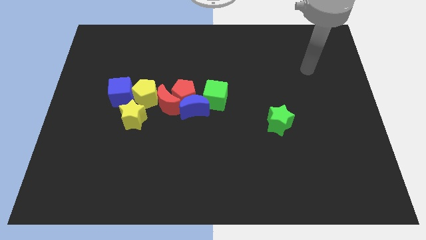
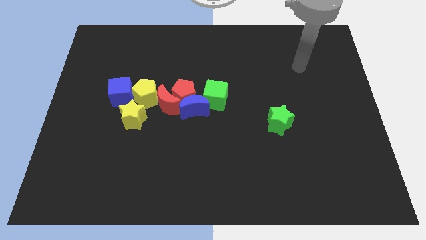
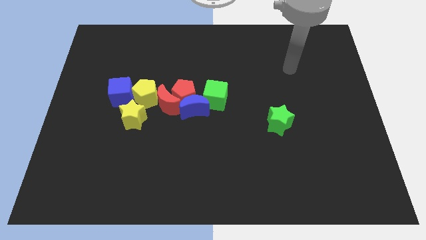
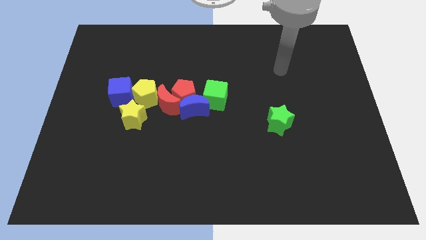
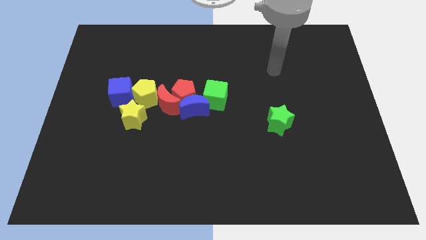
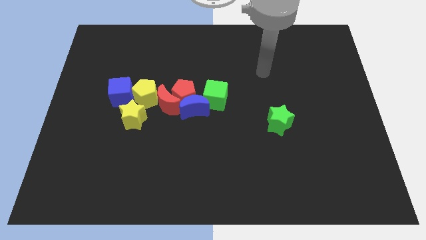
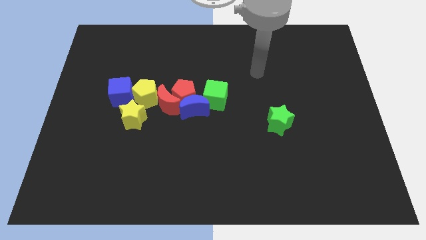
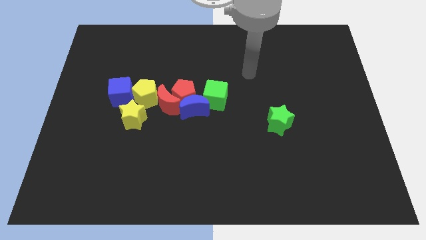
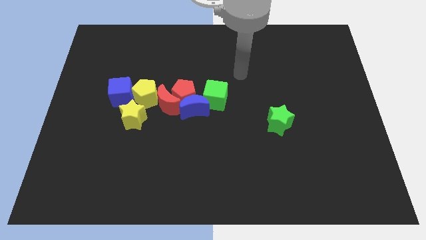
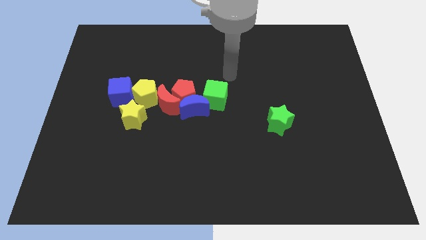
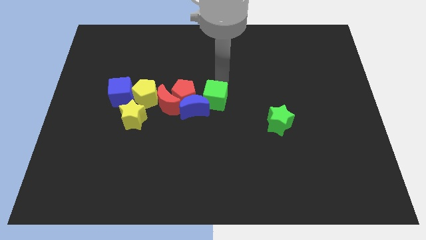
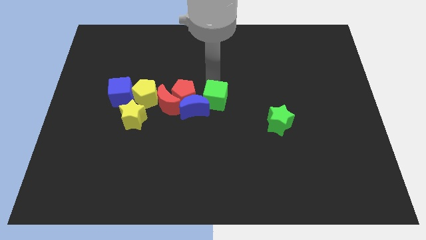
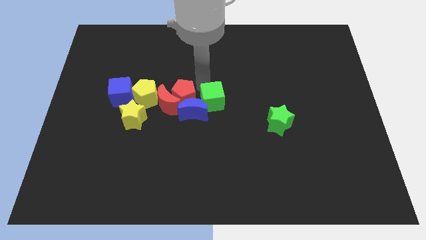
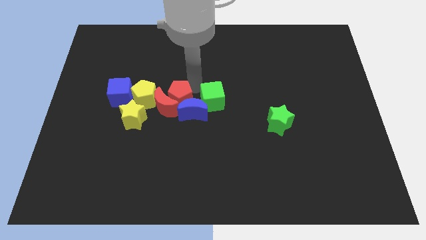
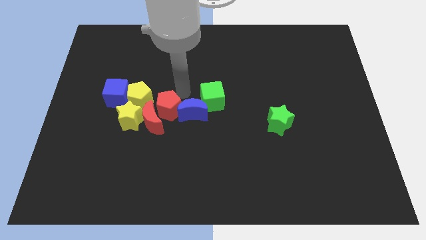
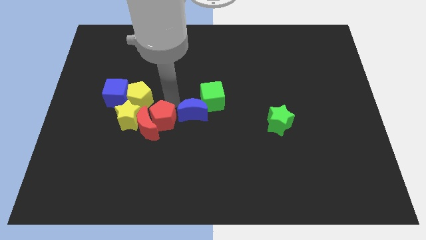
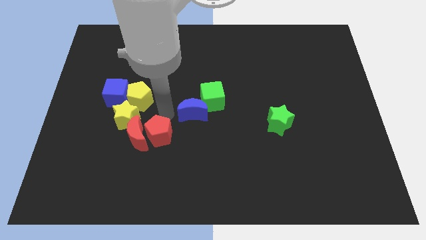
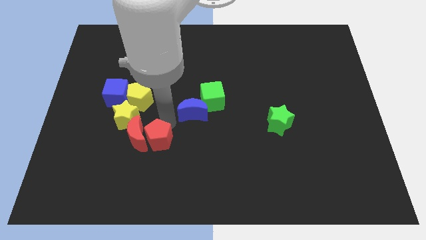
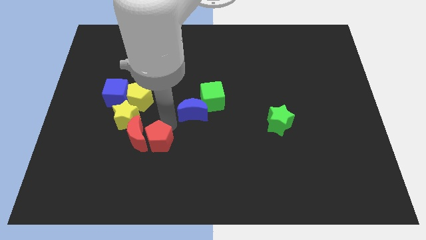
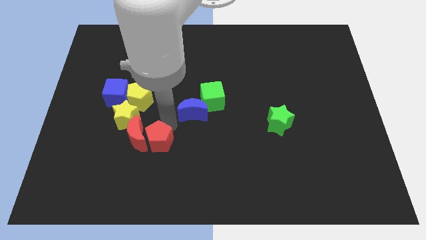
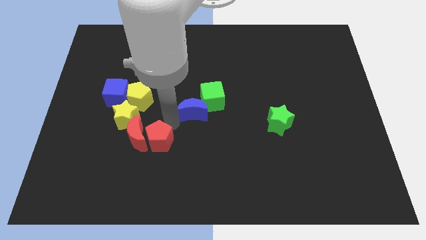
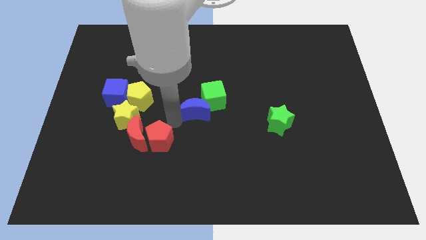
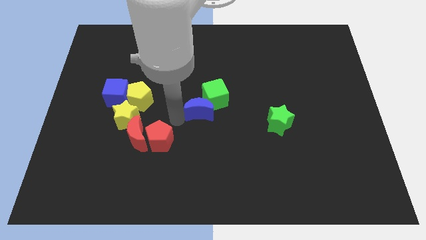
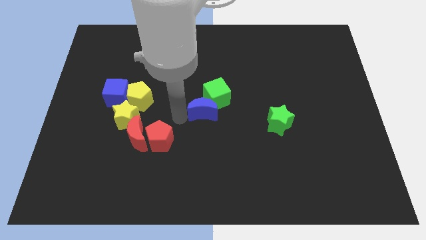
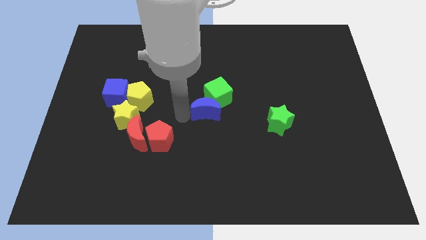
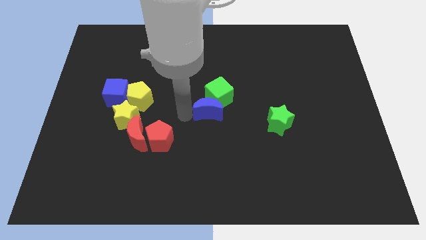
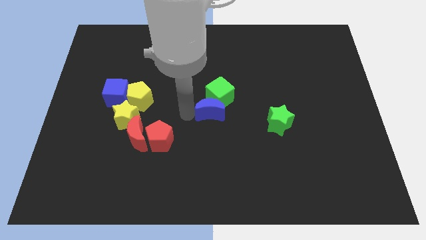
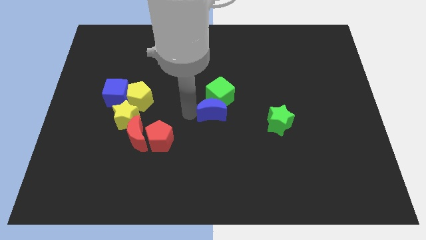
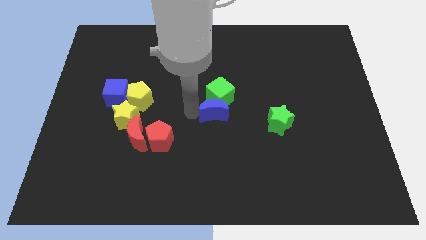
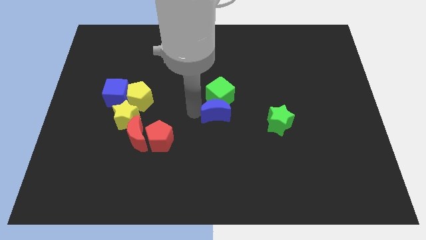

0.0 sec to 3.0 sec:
move the blue moon away from the red pentagon, green cube, and red moon

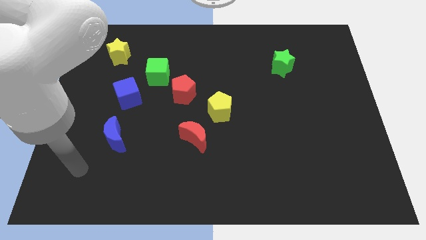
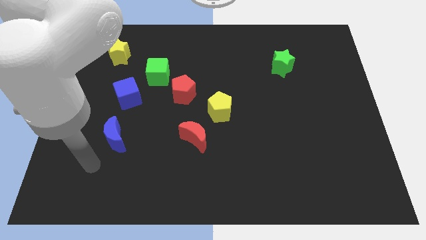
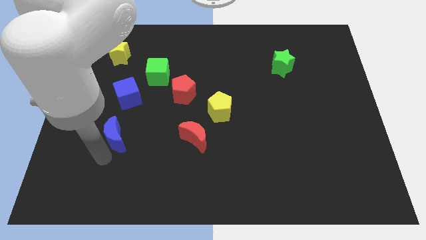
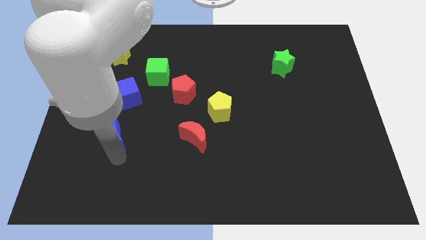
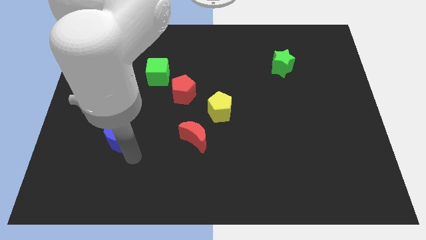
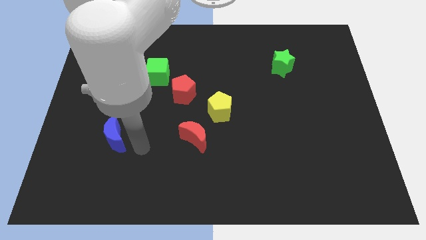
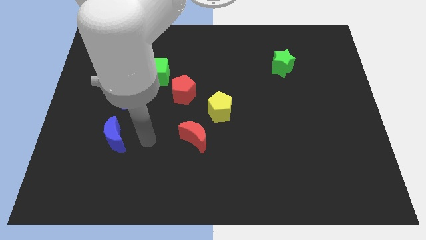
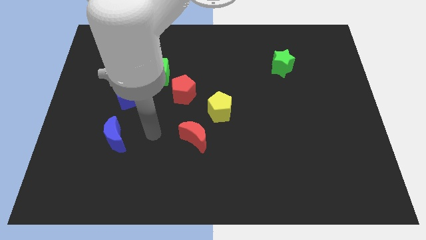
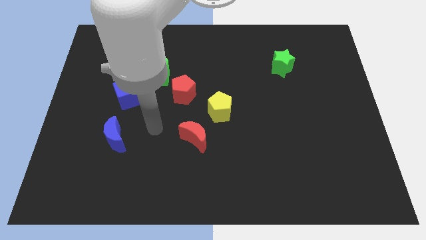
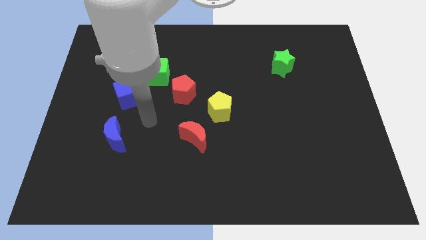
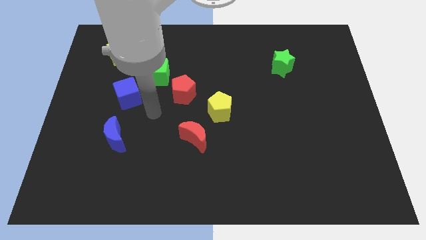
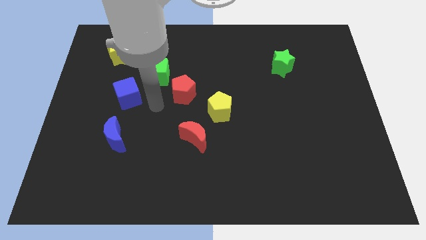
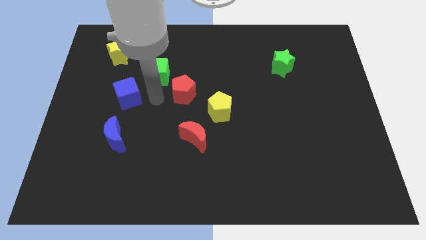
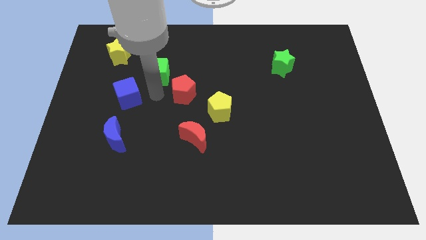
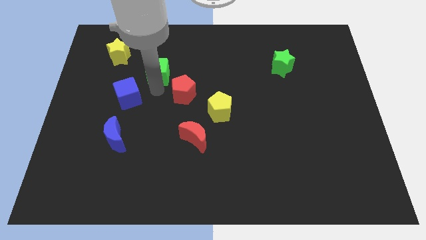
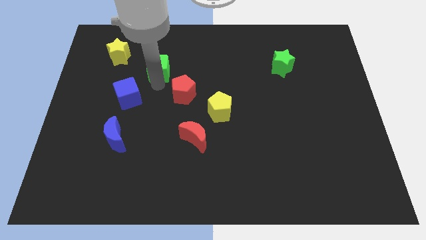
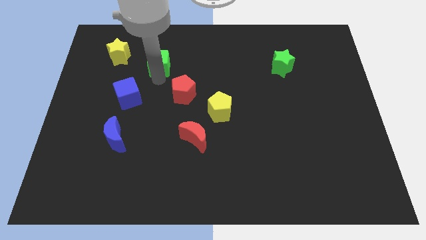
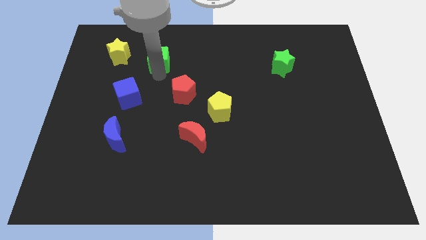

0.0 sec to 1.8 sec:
move the green cube away from the red pentagon and blue cube

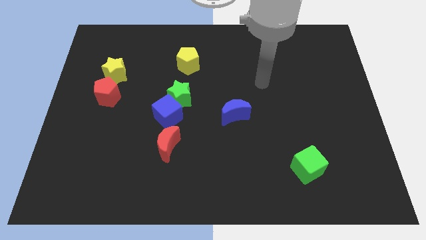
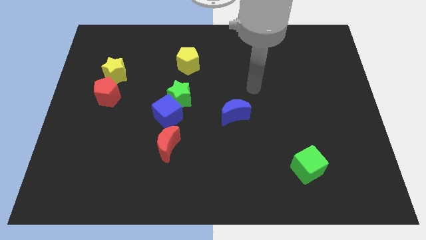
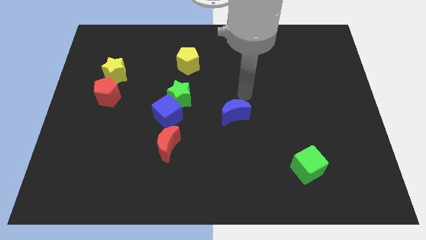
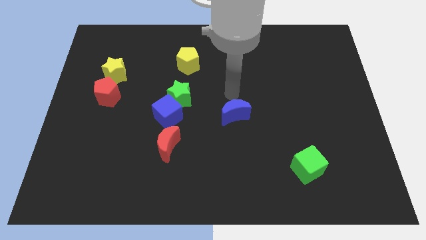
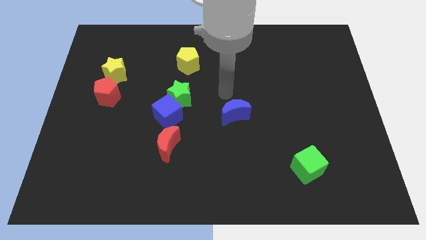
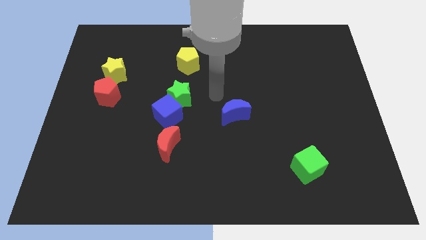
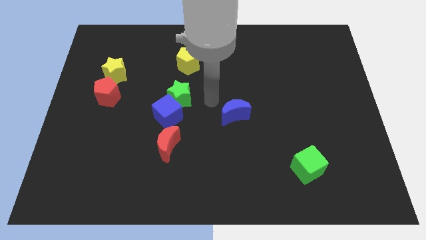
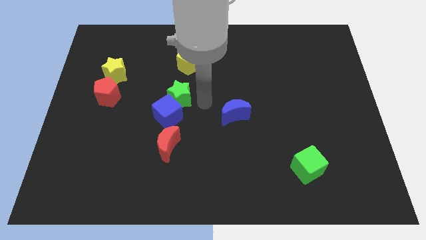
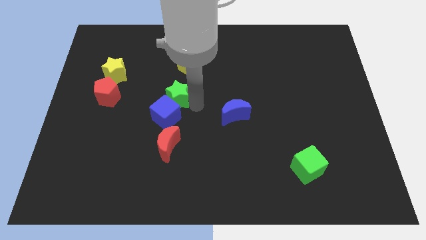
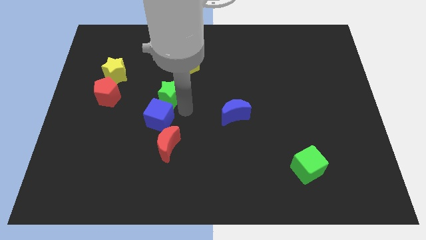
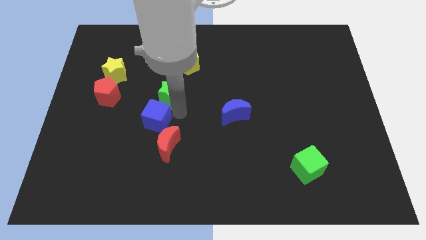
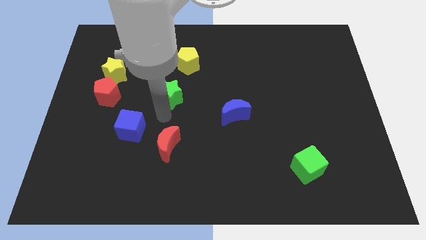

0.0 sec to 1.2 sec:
separate the green star from the blue cube

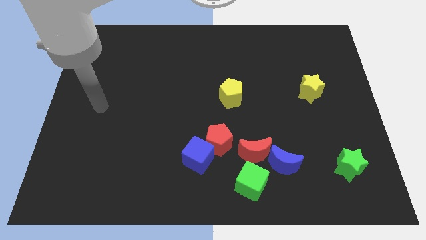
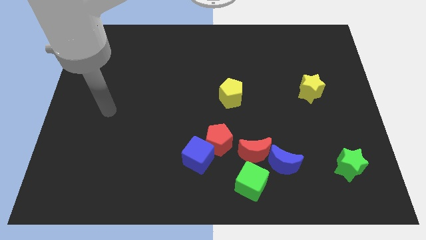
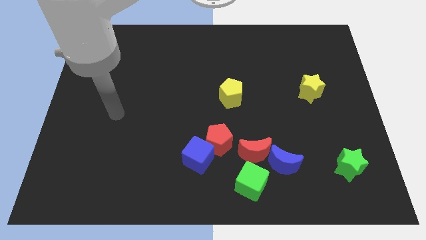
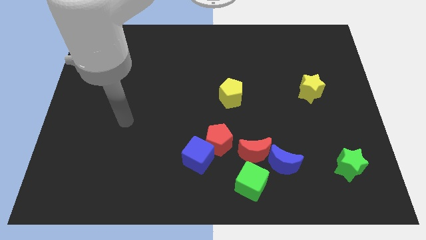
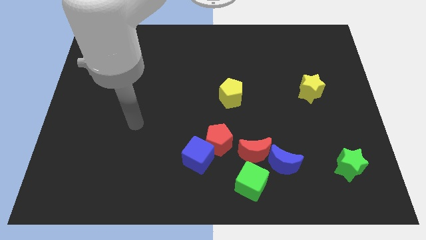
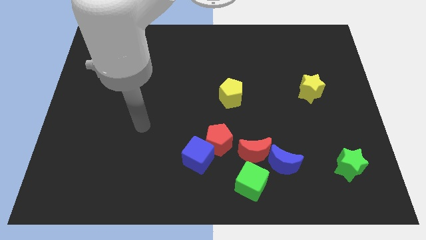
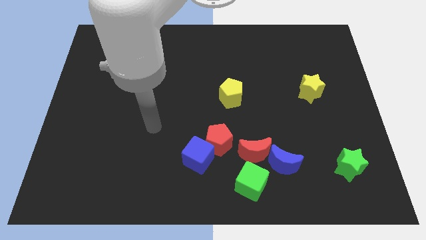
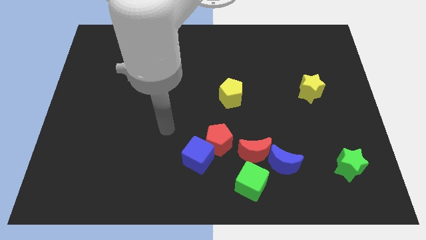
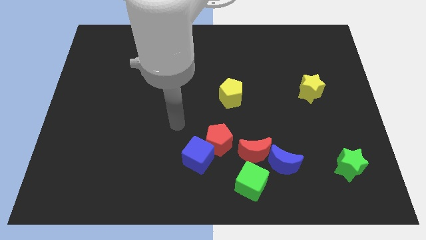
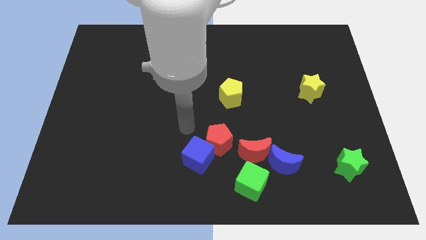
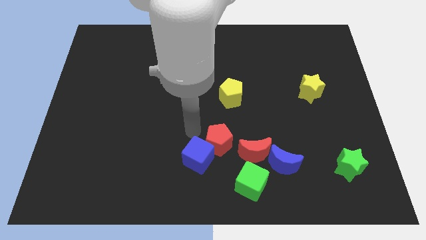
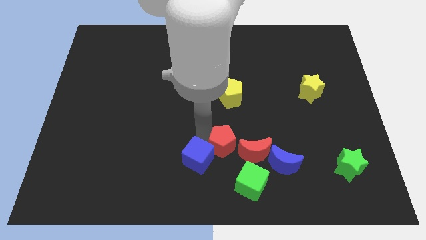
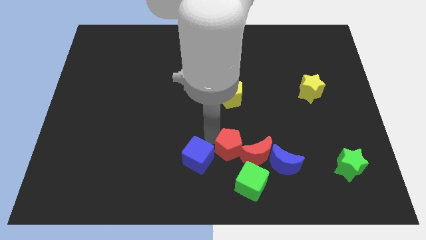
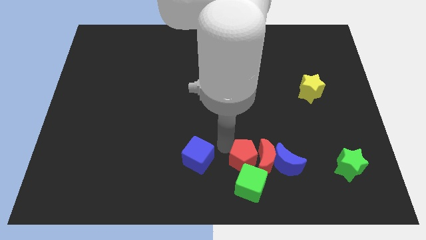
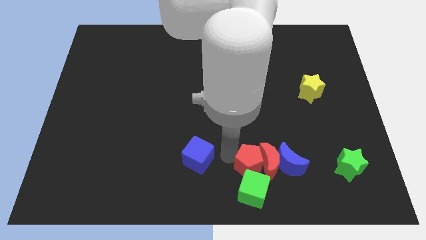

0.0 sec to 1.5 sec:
move the blue cube away from the red pentagon

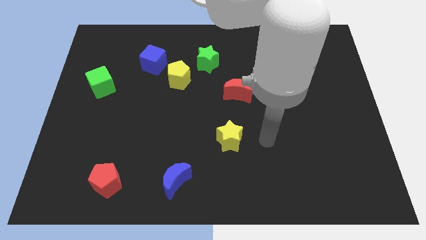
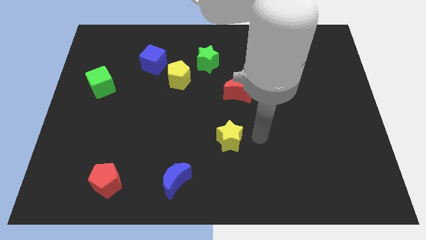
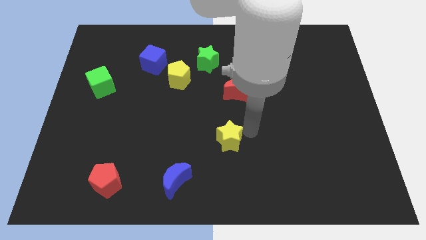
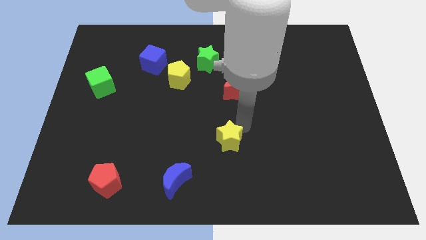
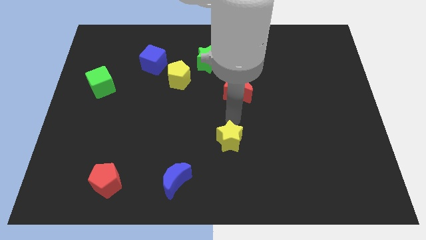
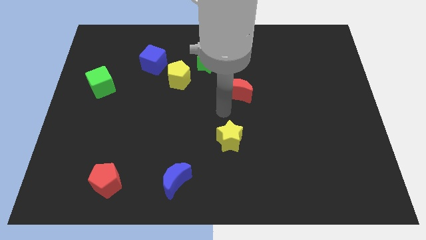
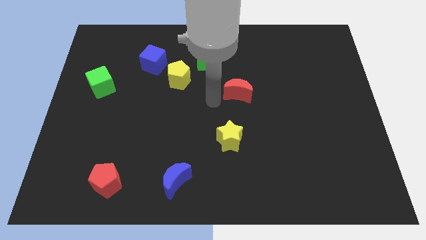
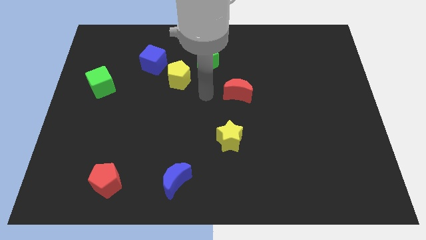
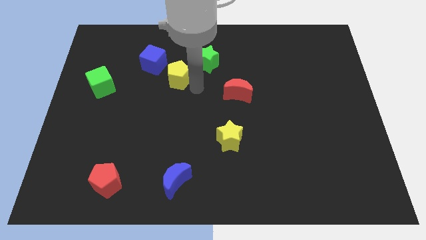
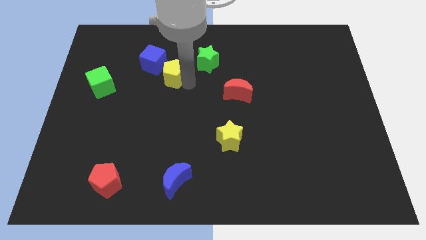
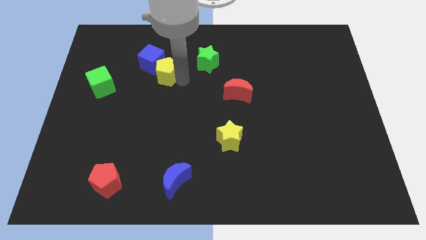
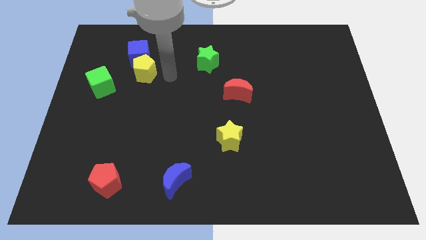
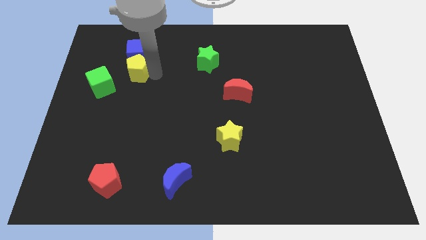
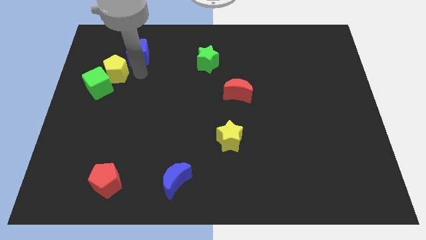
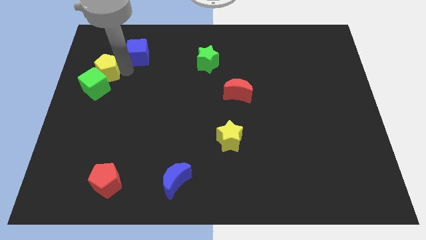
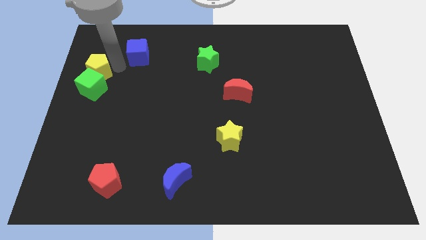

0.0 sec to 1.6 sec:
separate the blue cube from the yellow pentagon

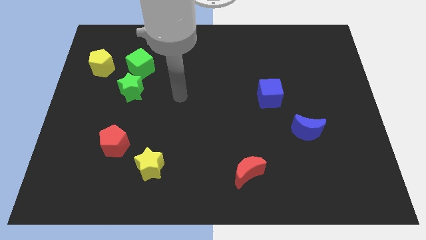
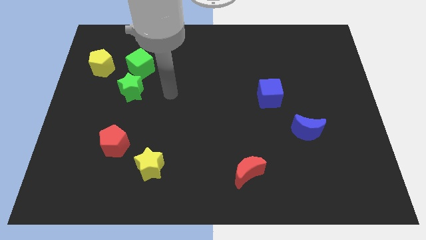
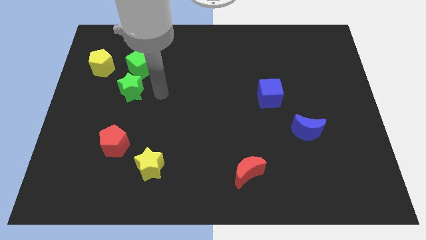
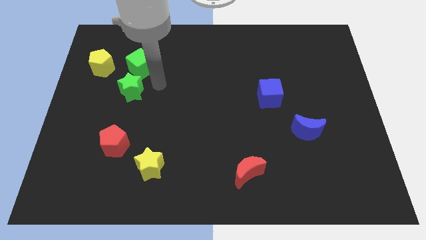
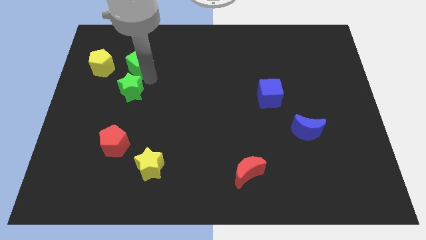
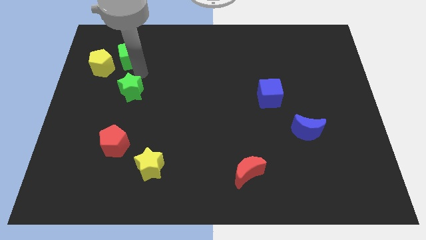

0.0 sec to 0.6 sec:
pull the green star apart from the green cube
